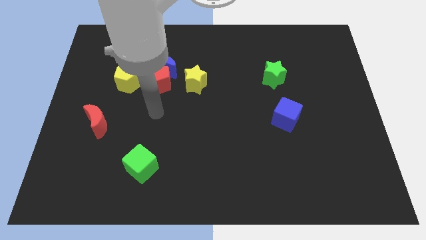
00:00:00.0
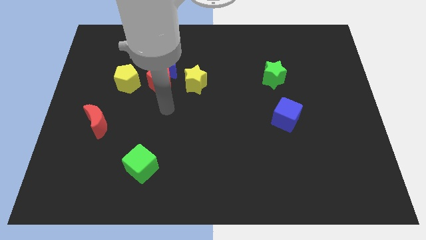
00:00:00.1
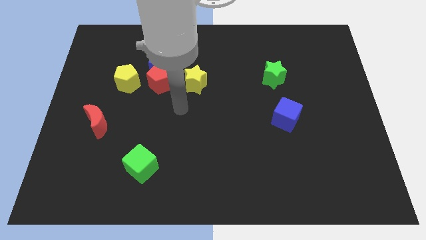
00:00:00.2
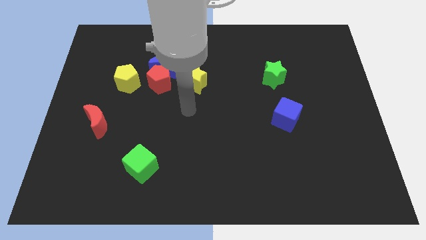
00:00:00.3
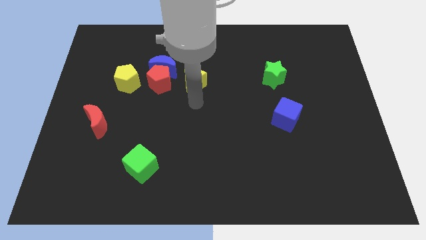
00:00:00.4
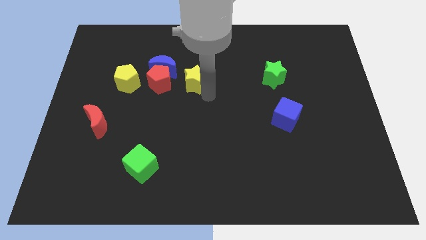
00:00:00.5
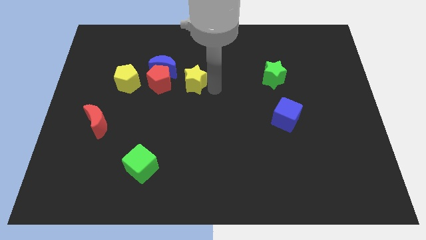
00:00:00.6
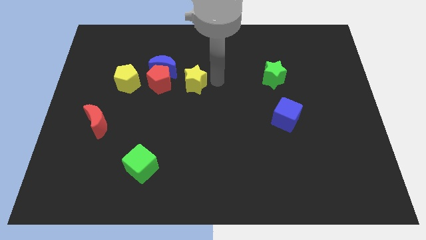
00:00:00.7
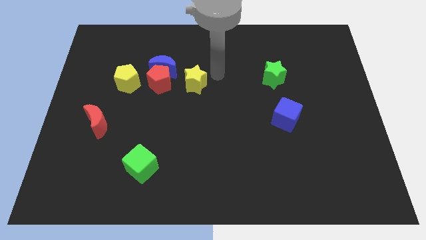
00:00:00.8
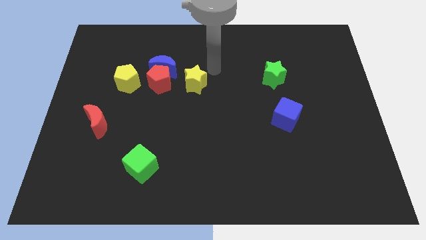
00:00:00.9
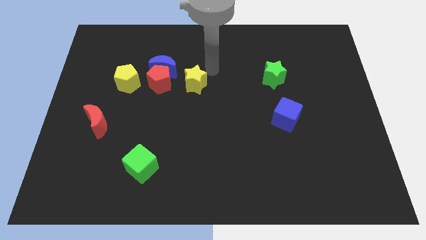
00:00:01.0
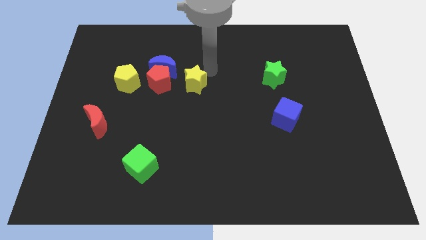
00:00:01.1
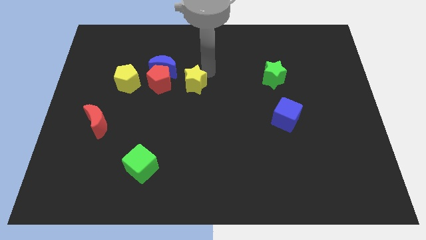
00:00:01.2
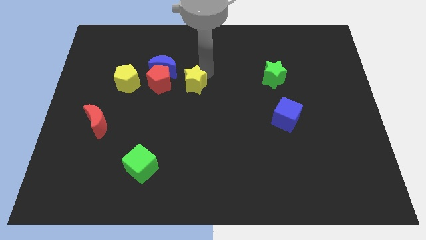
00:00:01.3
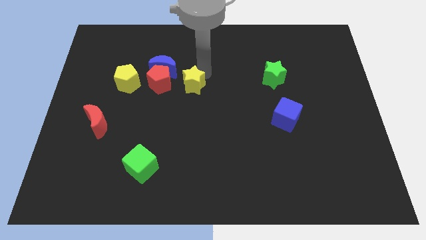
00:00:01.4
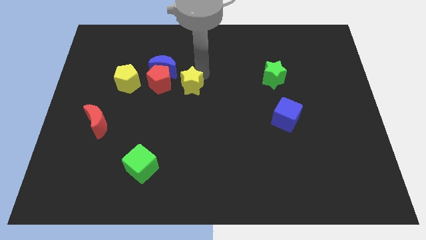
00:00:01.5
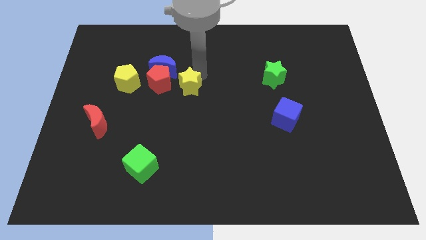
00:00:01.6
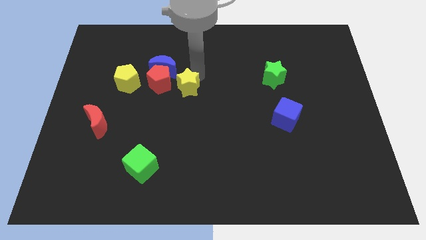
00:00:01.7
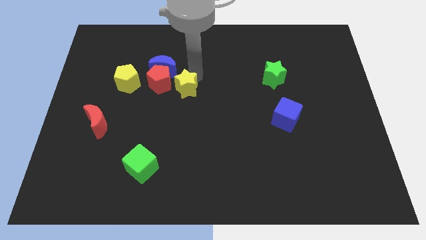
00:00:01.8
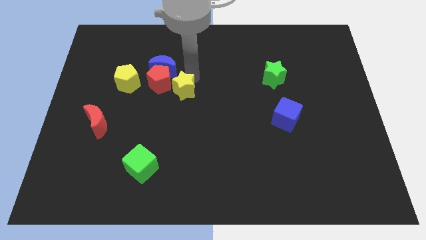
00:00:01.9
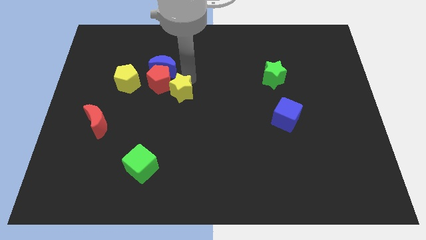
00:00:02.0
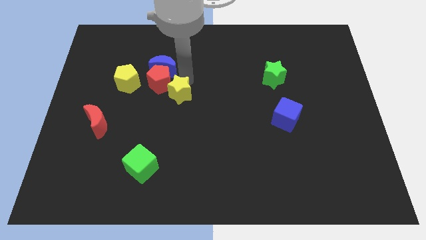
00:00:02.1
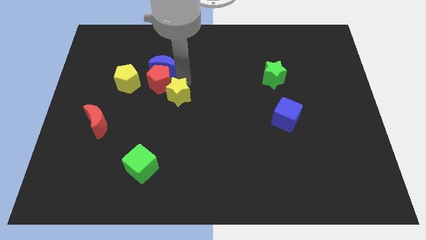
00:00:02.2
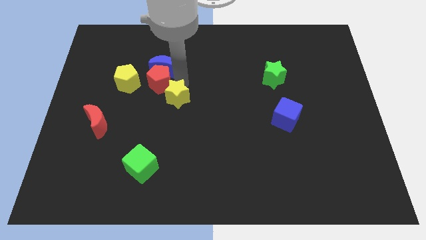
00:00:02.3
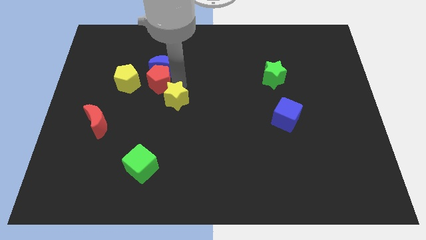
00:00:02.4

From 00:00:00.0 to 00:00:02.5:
move the yellow star slightly diagonally down and left

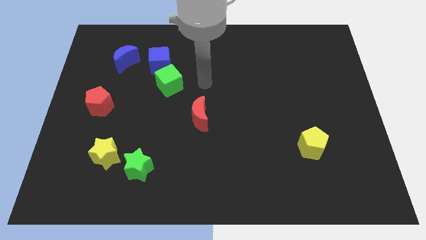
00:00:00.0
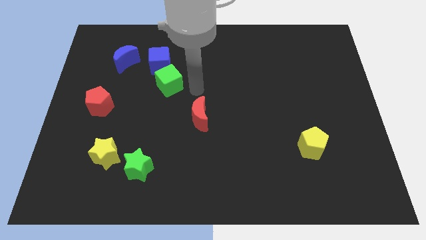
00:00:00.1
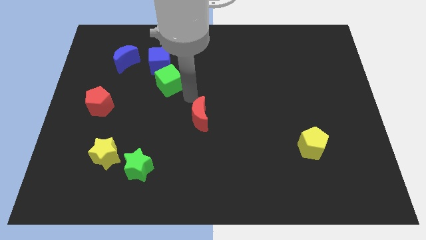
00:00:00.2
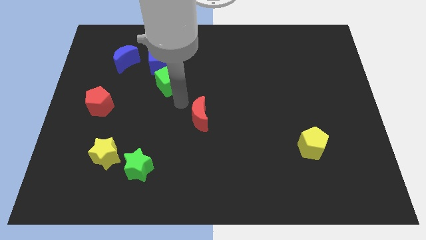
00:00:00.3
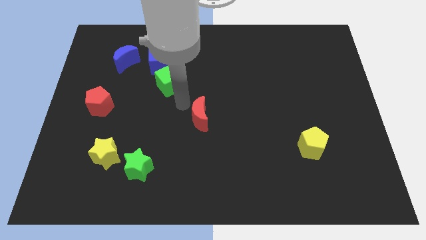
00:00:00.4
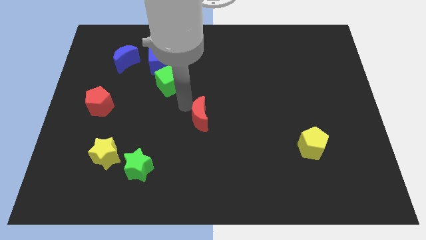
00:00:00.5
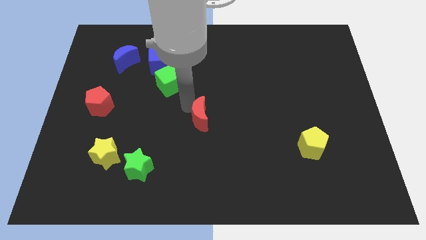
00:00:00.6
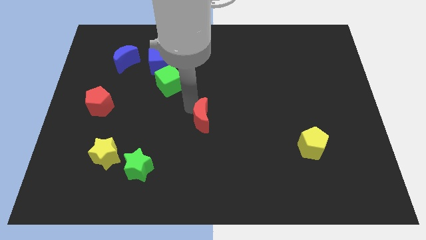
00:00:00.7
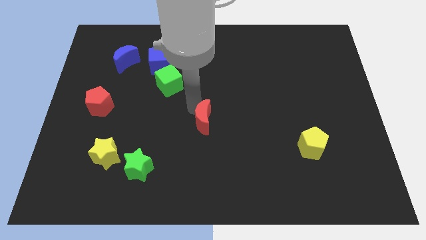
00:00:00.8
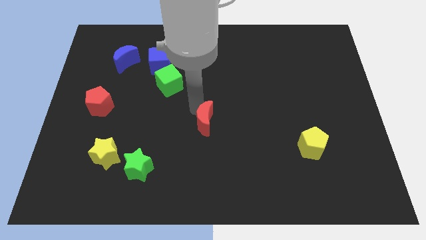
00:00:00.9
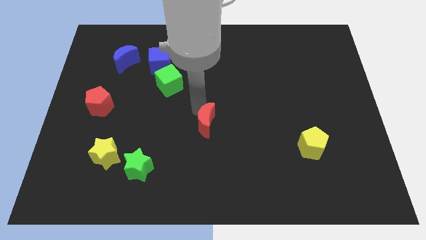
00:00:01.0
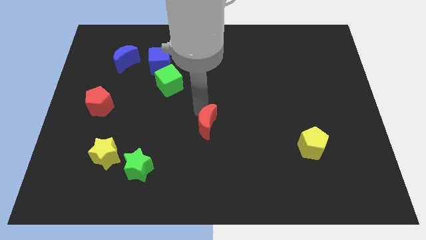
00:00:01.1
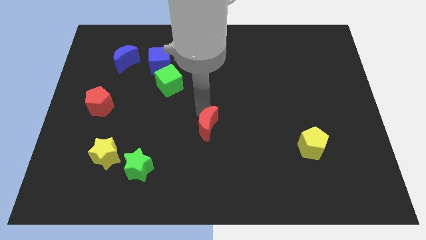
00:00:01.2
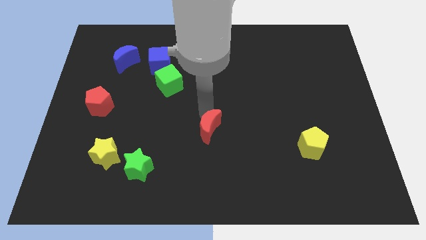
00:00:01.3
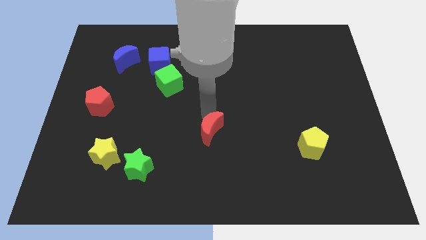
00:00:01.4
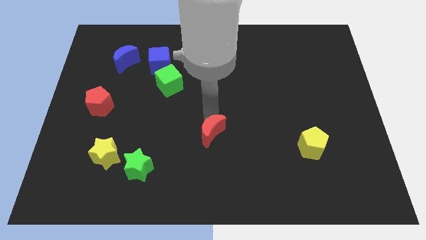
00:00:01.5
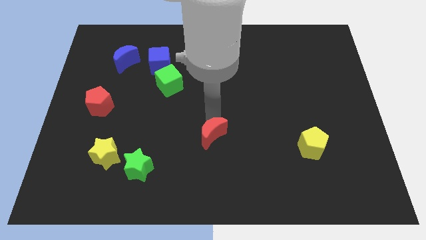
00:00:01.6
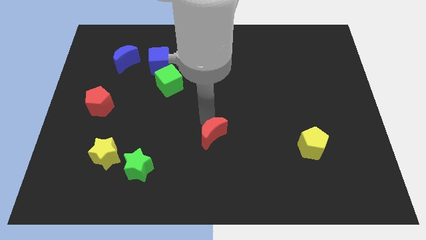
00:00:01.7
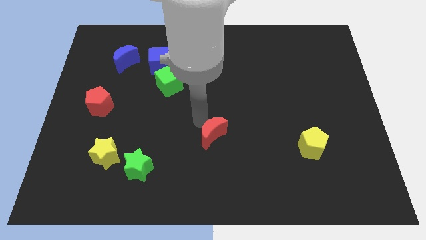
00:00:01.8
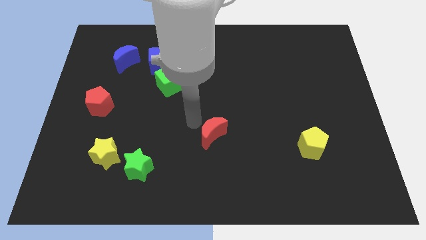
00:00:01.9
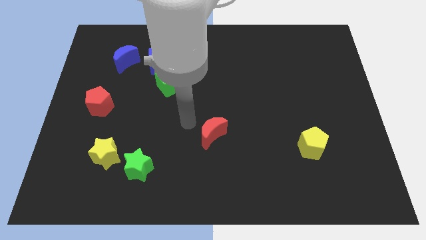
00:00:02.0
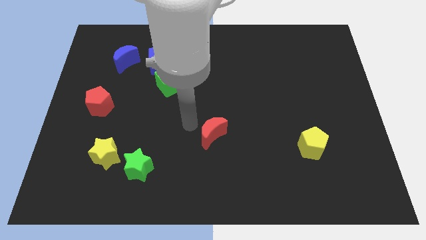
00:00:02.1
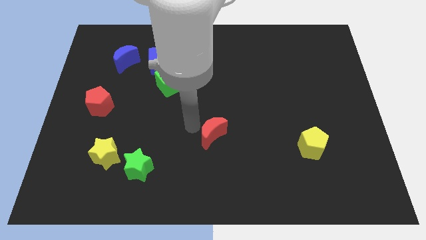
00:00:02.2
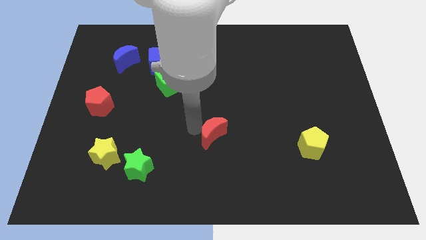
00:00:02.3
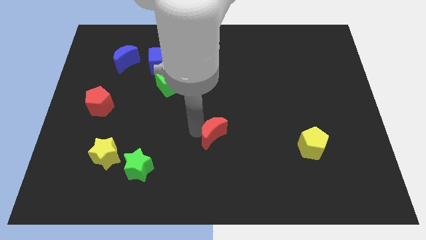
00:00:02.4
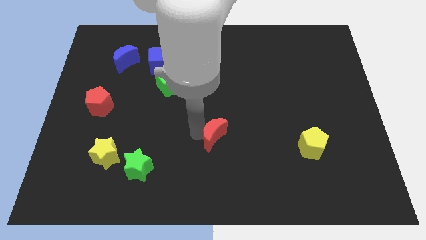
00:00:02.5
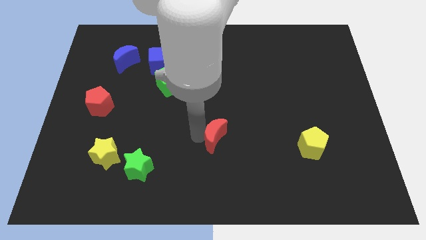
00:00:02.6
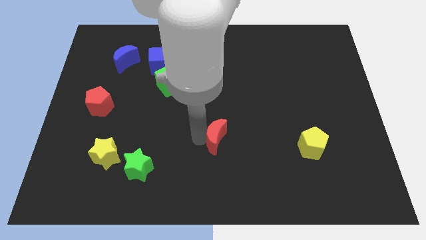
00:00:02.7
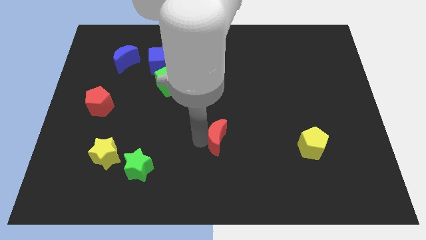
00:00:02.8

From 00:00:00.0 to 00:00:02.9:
push the red moon diagonally downwards and to the right a bit

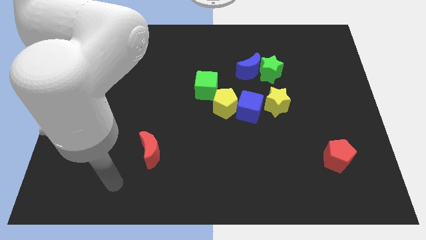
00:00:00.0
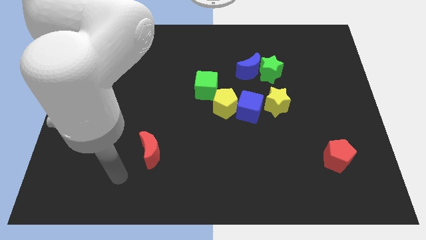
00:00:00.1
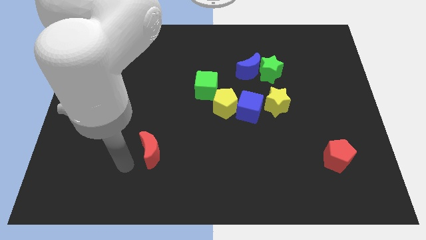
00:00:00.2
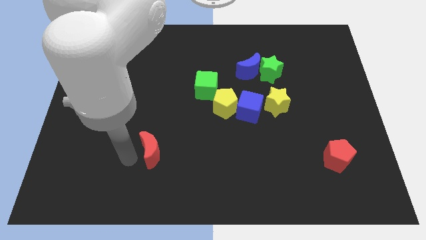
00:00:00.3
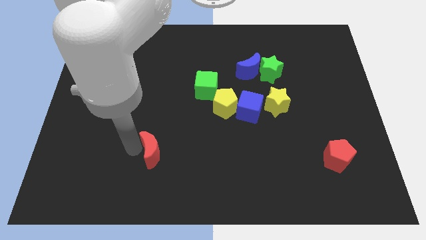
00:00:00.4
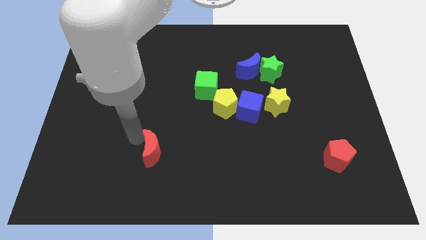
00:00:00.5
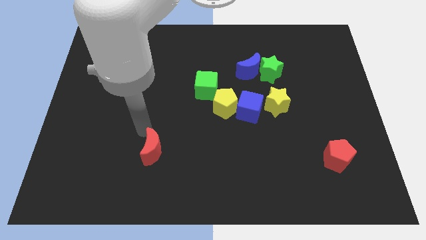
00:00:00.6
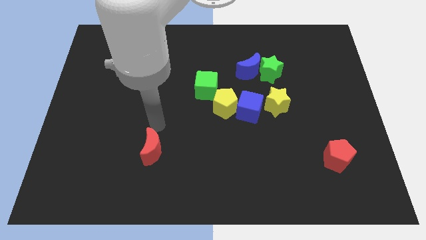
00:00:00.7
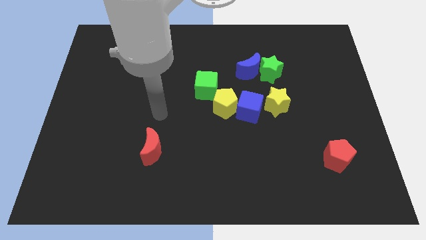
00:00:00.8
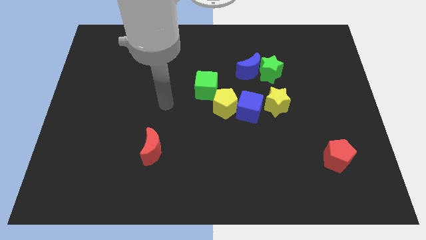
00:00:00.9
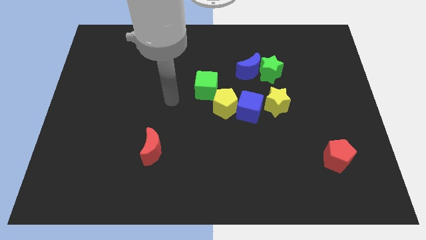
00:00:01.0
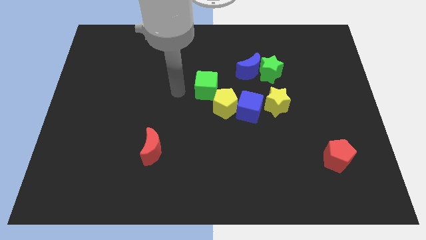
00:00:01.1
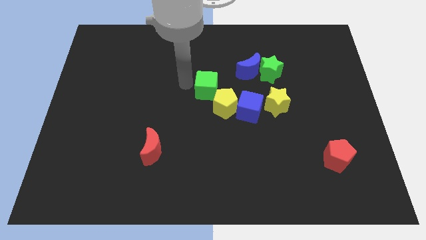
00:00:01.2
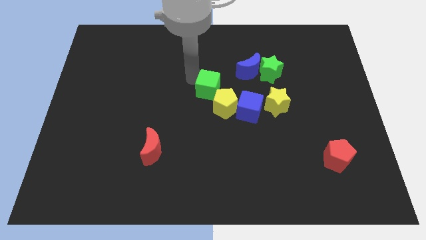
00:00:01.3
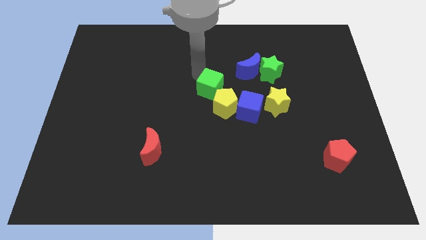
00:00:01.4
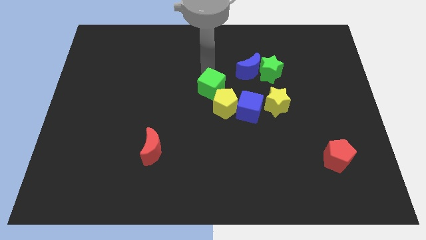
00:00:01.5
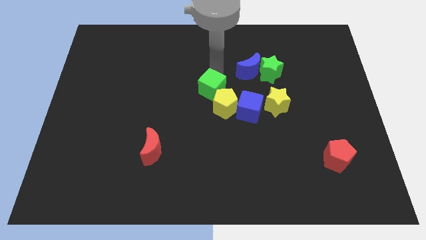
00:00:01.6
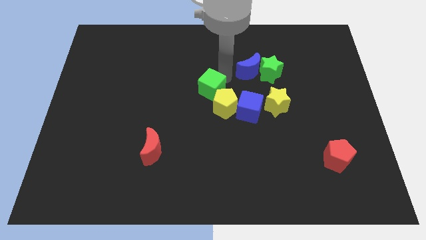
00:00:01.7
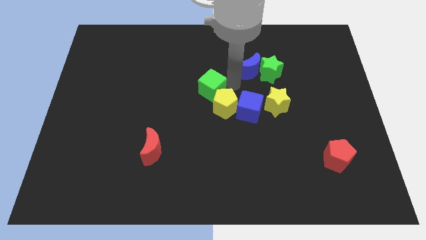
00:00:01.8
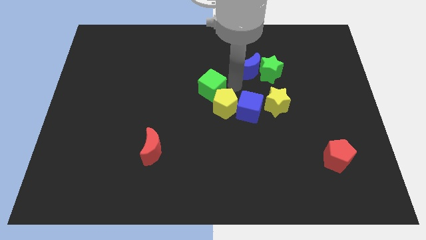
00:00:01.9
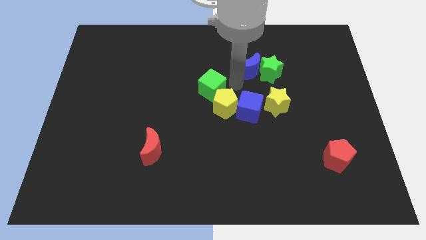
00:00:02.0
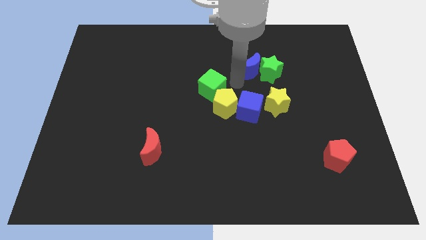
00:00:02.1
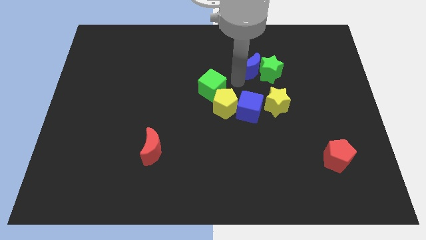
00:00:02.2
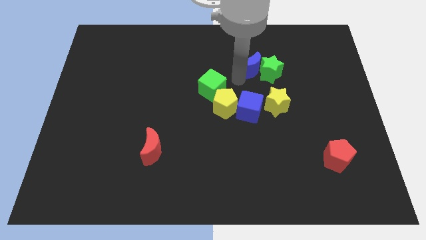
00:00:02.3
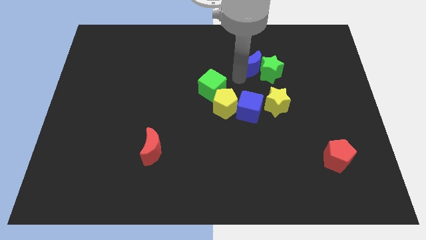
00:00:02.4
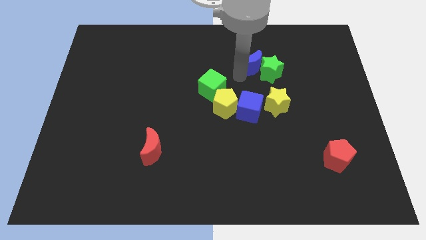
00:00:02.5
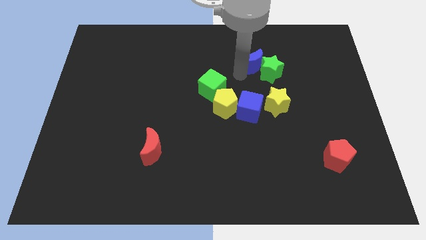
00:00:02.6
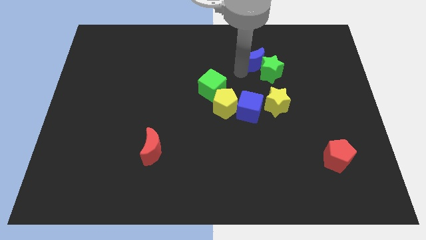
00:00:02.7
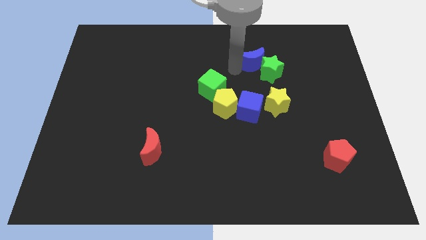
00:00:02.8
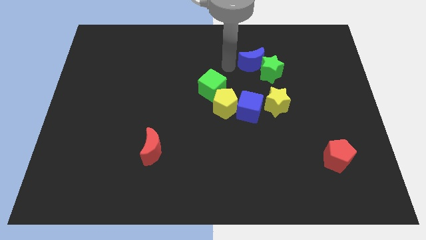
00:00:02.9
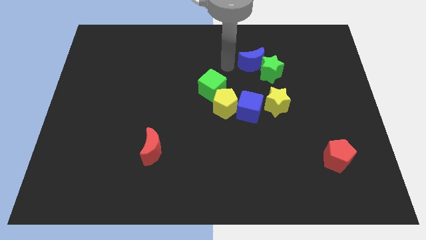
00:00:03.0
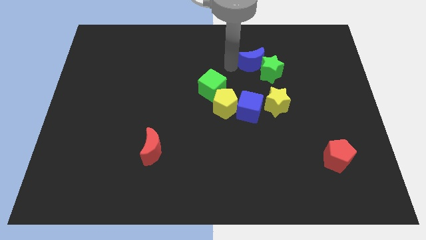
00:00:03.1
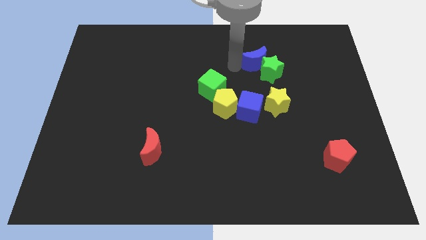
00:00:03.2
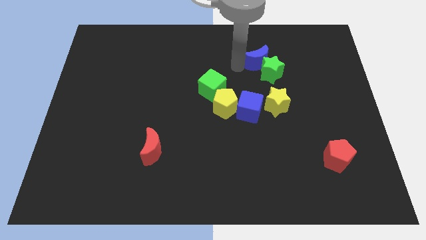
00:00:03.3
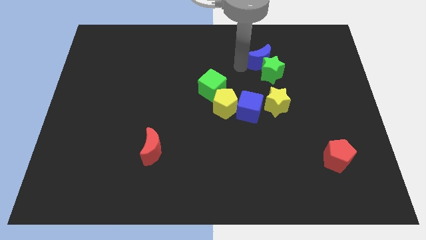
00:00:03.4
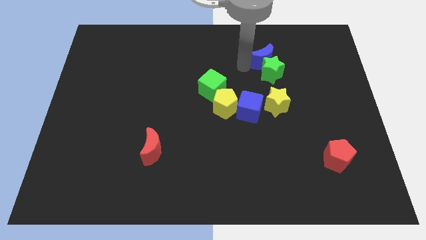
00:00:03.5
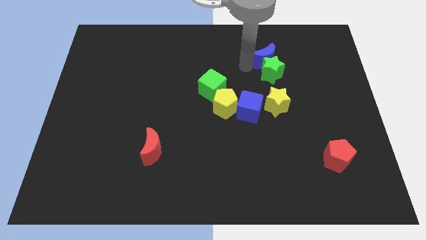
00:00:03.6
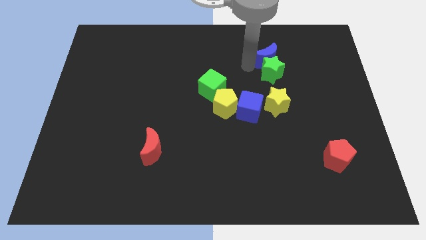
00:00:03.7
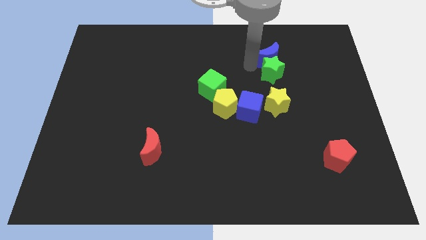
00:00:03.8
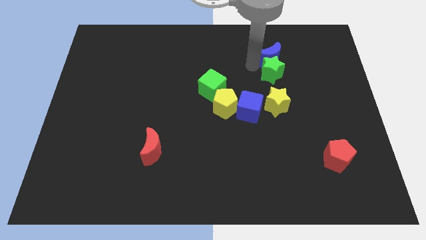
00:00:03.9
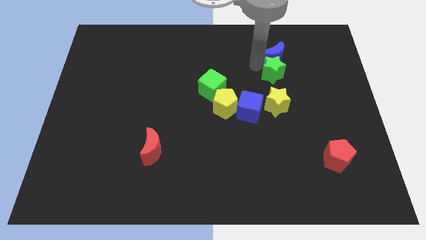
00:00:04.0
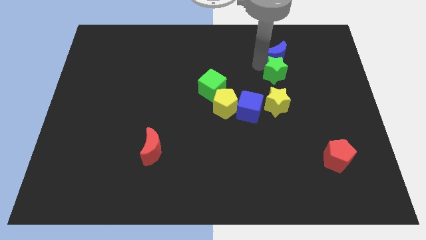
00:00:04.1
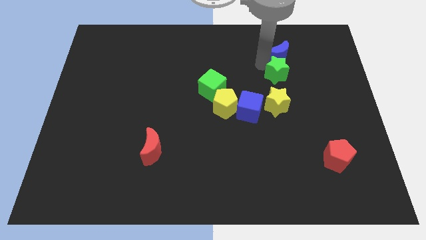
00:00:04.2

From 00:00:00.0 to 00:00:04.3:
slightly slide the blue moon to the right
